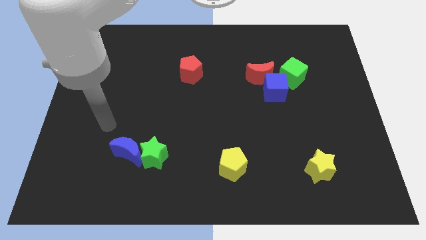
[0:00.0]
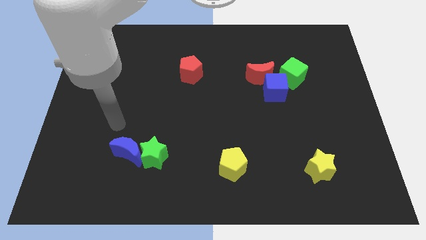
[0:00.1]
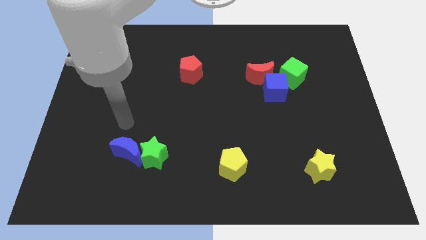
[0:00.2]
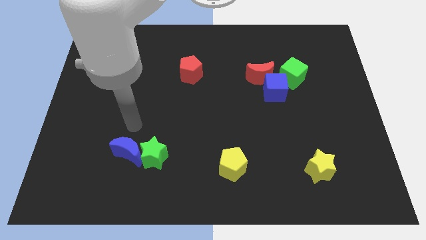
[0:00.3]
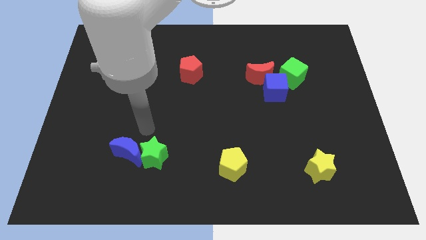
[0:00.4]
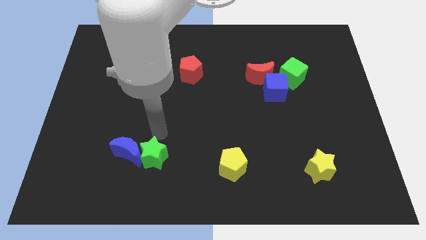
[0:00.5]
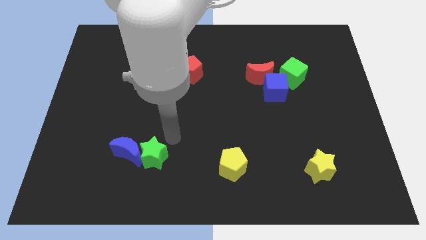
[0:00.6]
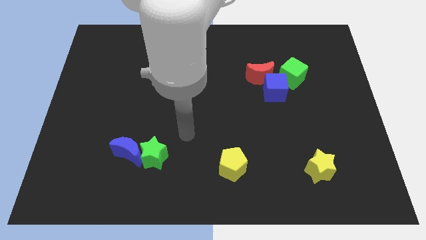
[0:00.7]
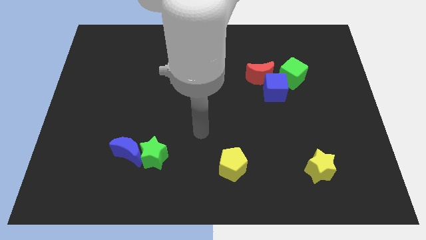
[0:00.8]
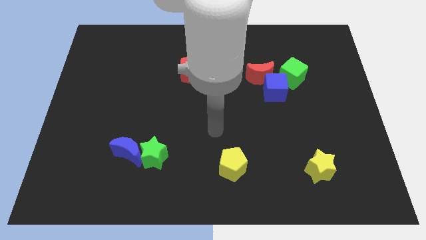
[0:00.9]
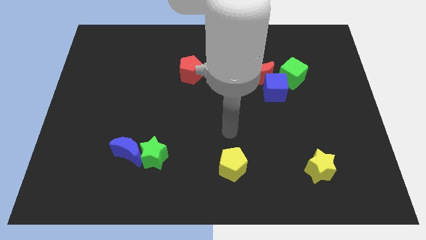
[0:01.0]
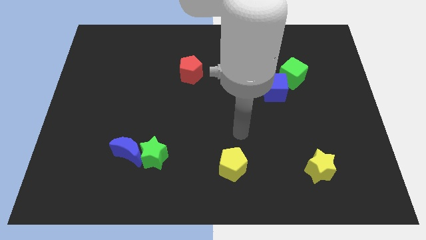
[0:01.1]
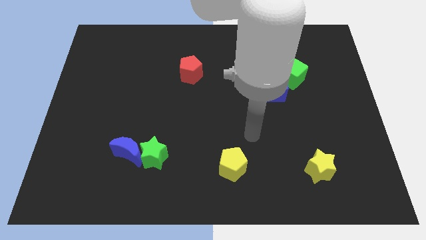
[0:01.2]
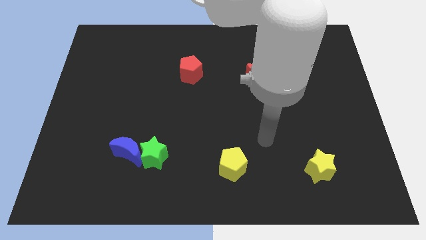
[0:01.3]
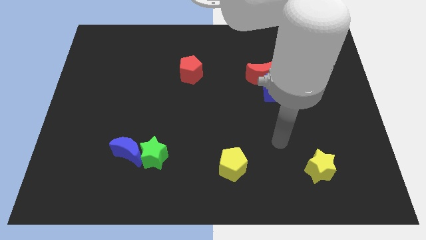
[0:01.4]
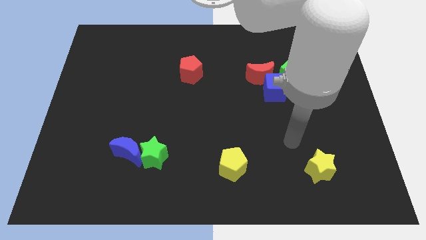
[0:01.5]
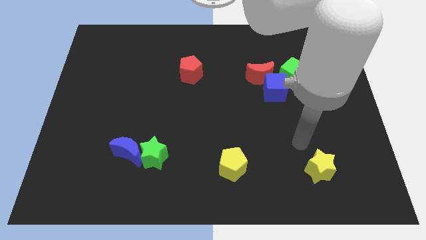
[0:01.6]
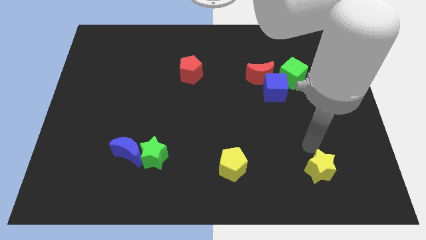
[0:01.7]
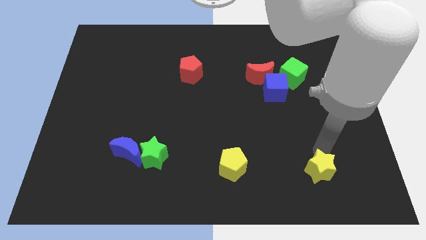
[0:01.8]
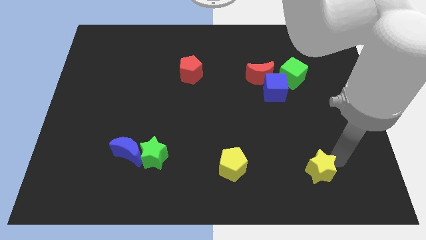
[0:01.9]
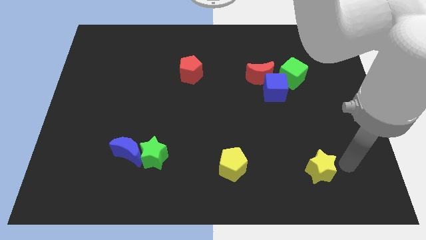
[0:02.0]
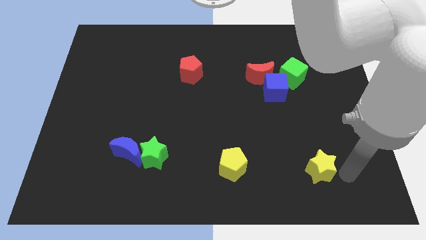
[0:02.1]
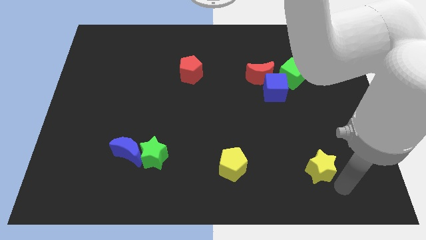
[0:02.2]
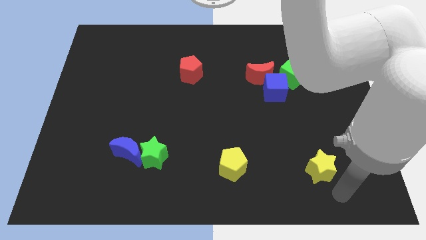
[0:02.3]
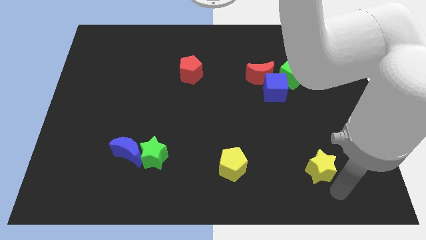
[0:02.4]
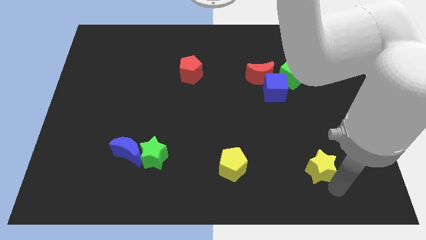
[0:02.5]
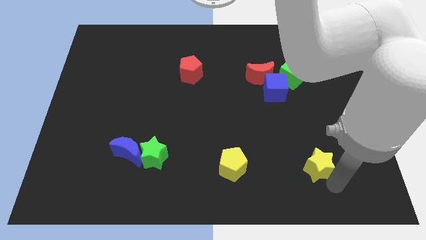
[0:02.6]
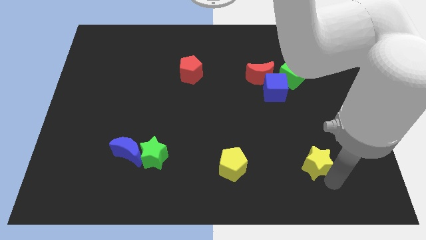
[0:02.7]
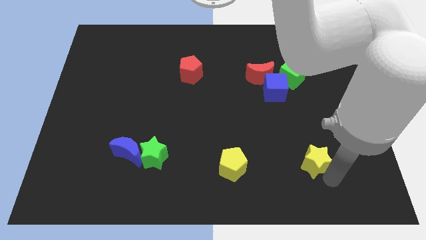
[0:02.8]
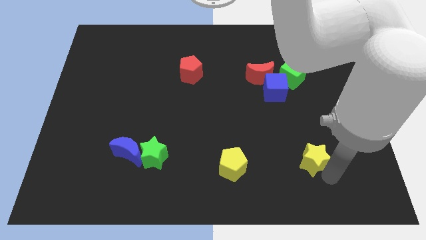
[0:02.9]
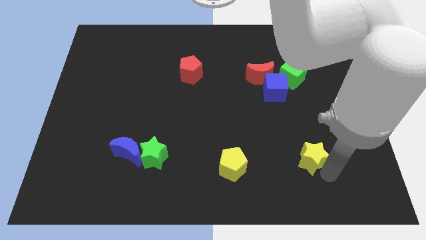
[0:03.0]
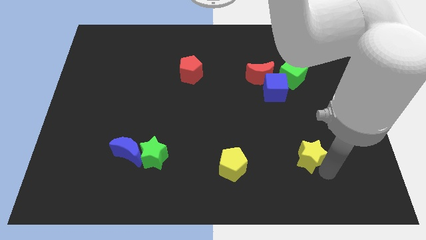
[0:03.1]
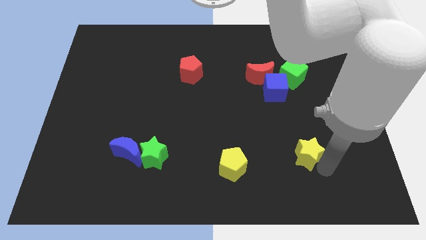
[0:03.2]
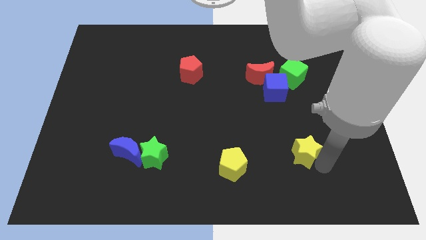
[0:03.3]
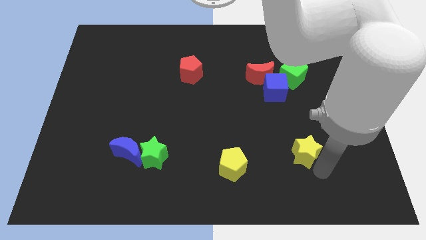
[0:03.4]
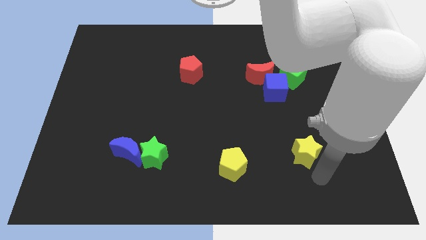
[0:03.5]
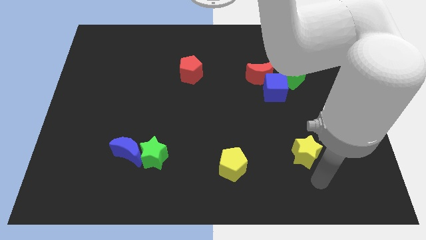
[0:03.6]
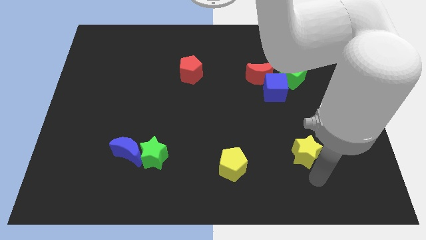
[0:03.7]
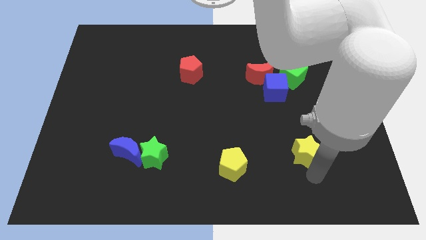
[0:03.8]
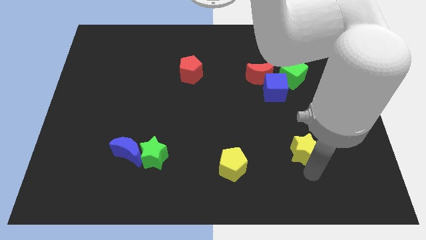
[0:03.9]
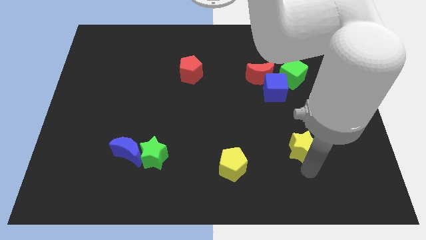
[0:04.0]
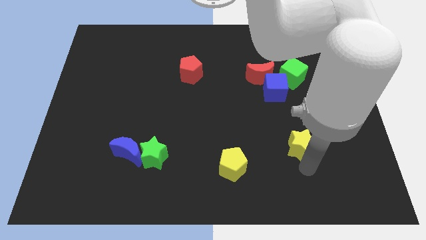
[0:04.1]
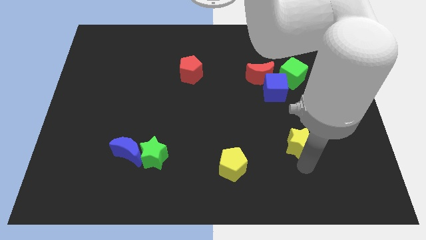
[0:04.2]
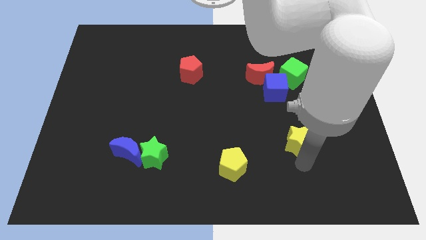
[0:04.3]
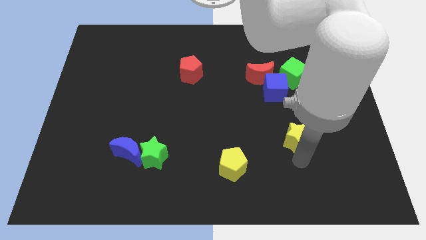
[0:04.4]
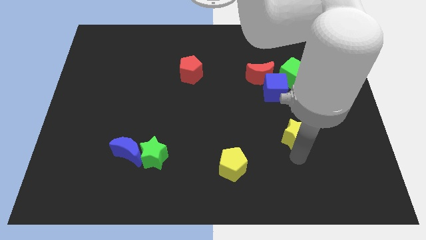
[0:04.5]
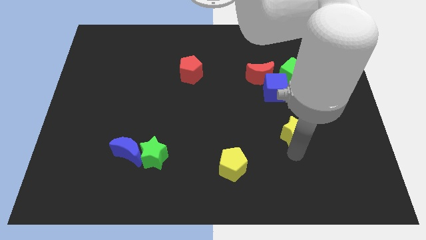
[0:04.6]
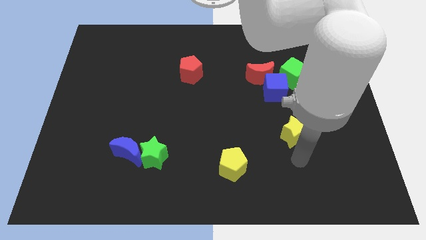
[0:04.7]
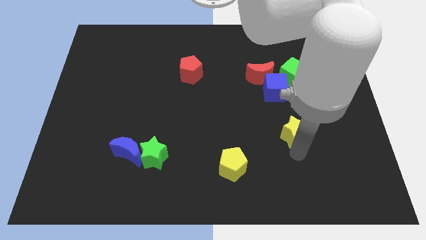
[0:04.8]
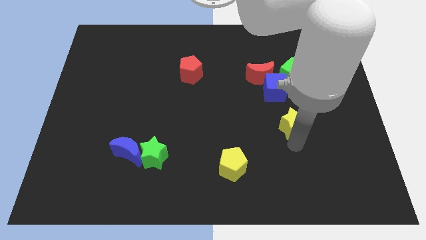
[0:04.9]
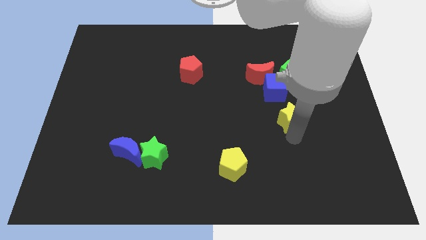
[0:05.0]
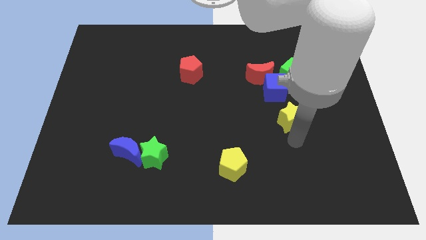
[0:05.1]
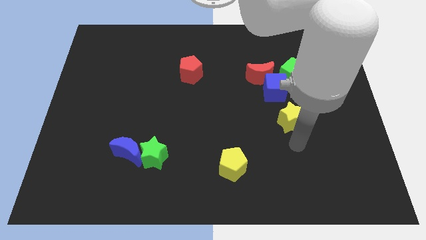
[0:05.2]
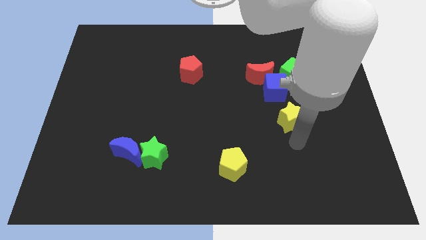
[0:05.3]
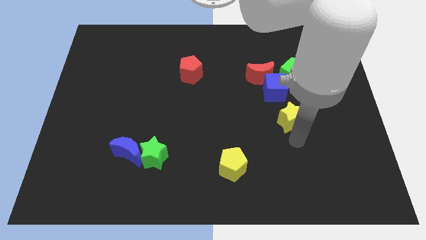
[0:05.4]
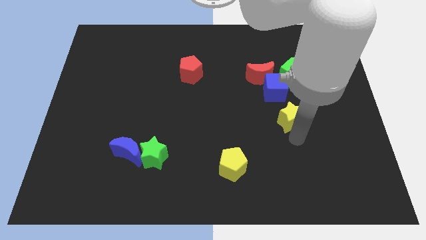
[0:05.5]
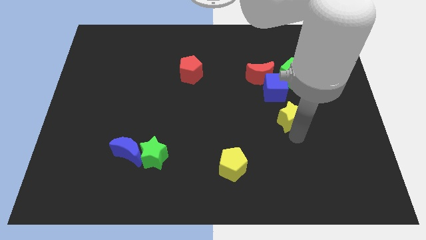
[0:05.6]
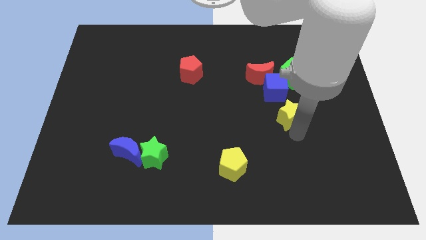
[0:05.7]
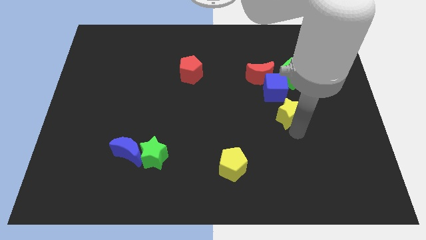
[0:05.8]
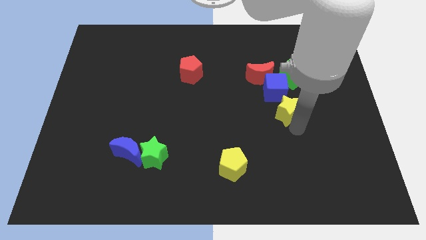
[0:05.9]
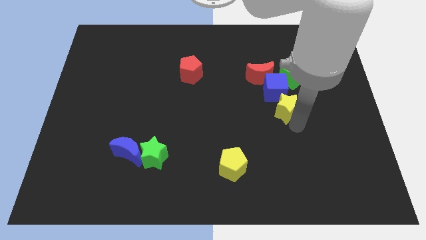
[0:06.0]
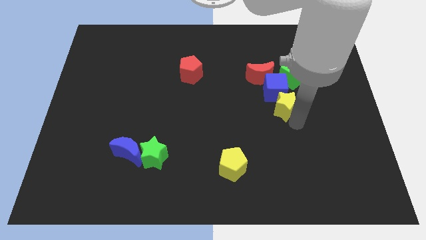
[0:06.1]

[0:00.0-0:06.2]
slide the yellow star to the blue cube
